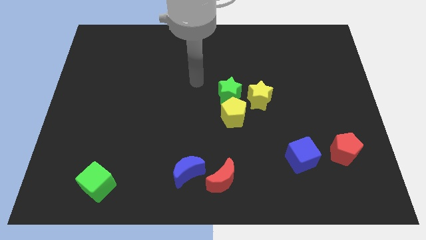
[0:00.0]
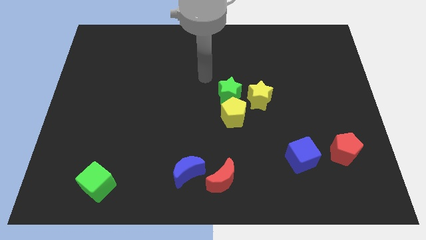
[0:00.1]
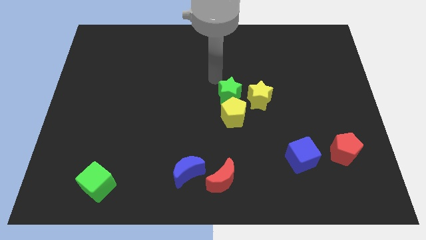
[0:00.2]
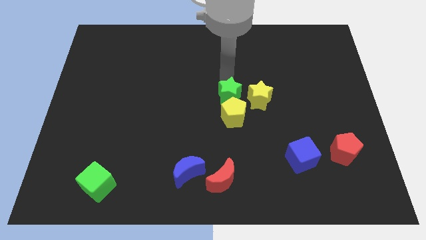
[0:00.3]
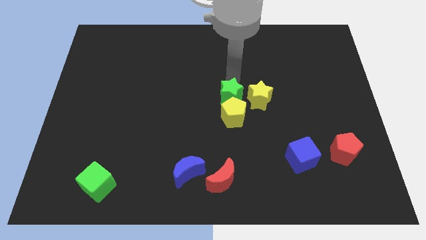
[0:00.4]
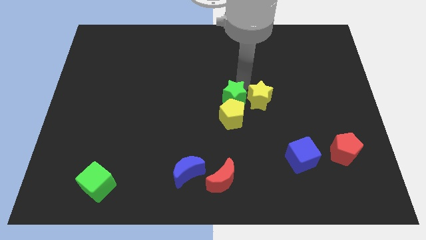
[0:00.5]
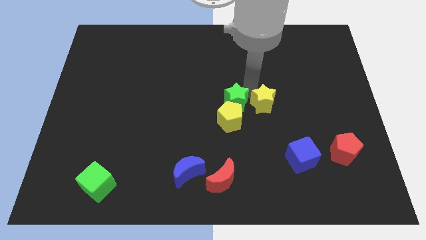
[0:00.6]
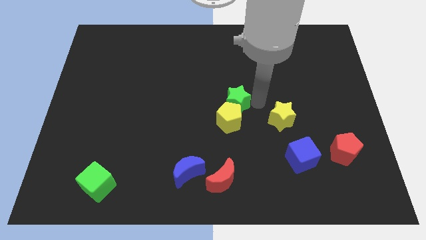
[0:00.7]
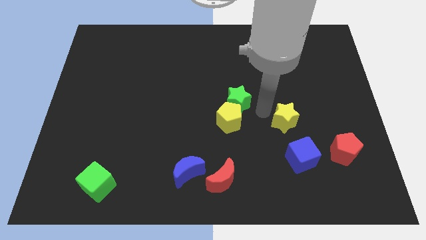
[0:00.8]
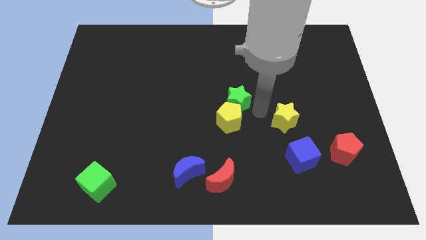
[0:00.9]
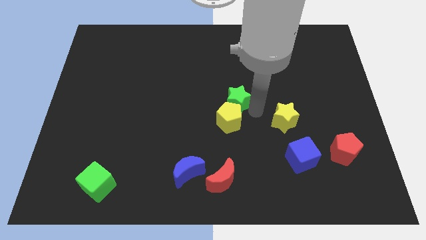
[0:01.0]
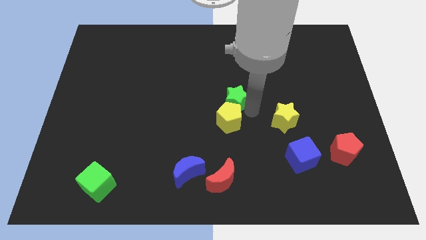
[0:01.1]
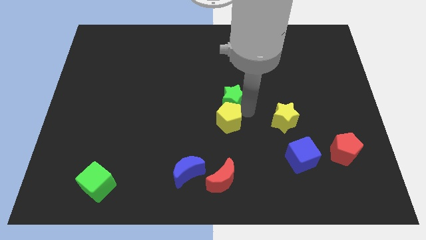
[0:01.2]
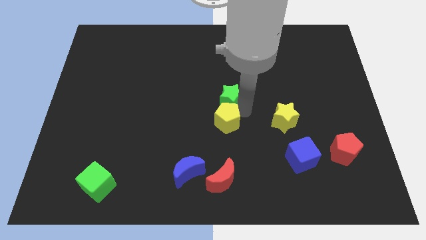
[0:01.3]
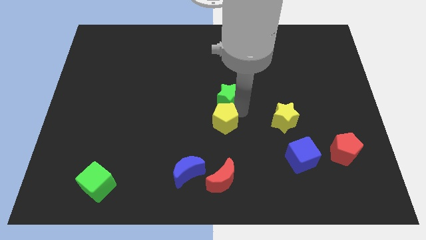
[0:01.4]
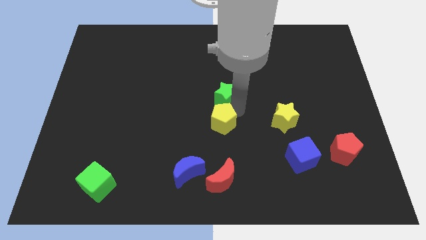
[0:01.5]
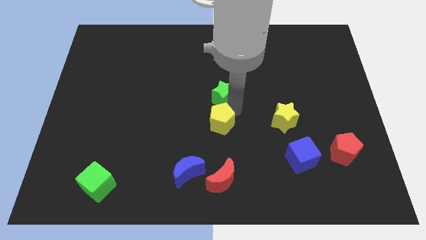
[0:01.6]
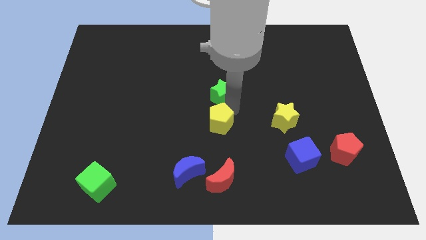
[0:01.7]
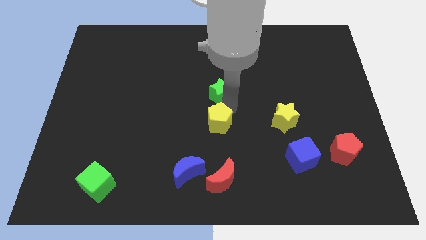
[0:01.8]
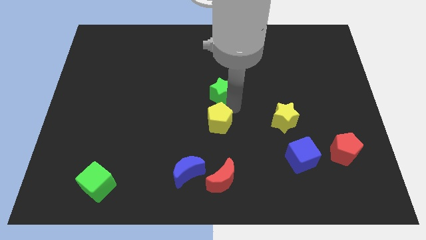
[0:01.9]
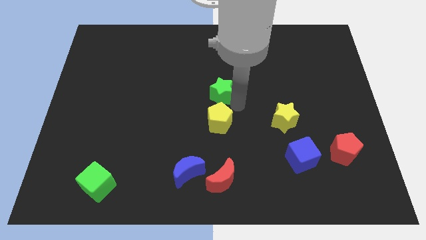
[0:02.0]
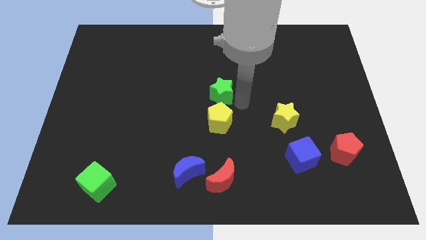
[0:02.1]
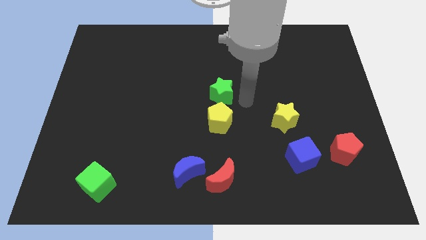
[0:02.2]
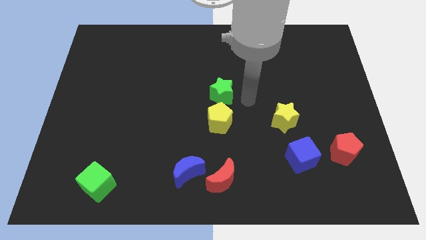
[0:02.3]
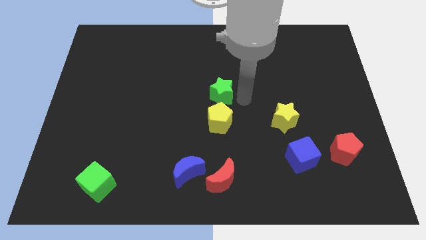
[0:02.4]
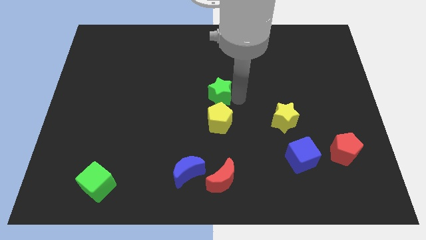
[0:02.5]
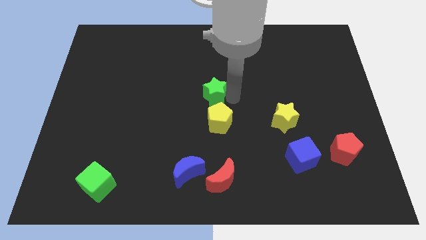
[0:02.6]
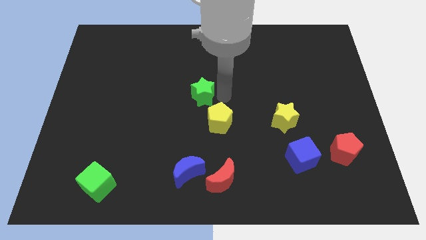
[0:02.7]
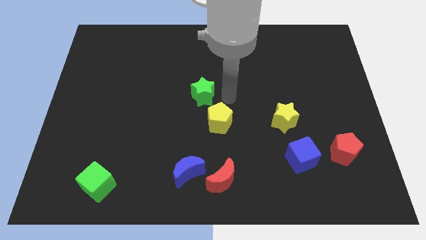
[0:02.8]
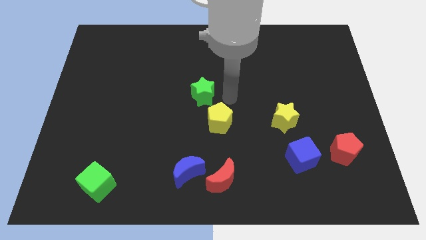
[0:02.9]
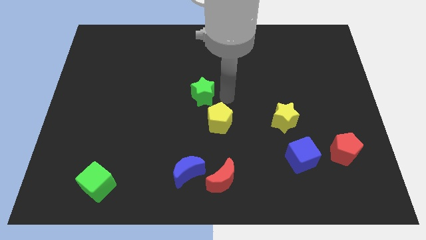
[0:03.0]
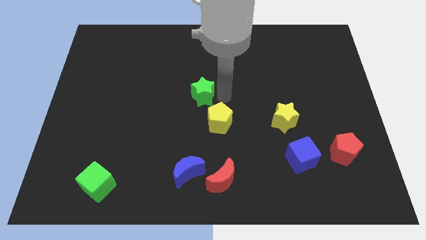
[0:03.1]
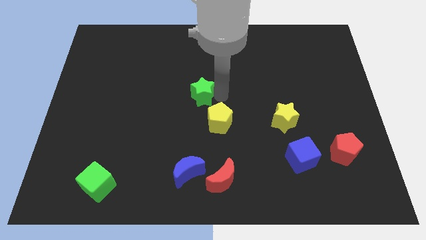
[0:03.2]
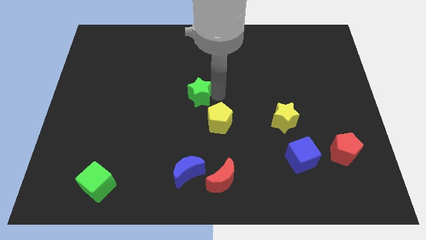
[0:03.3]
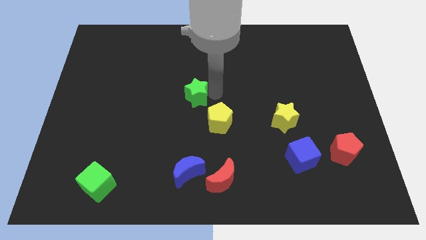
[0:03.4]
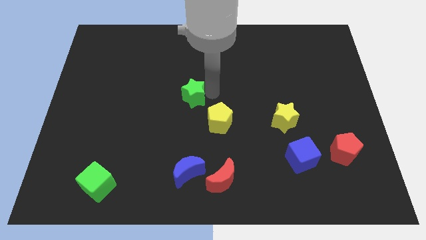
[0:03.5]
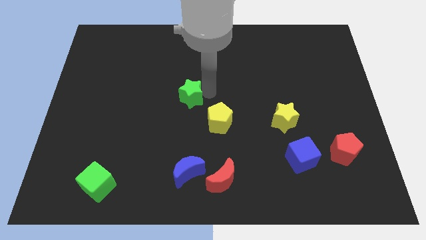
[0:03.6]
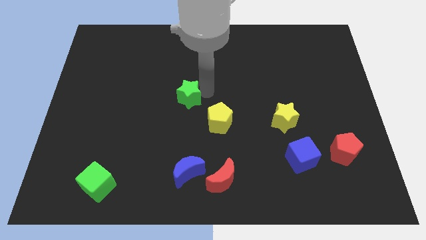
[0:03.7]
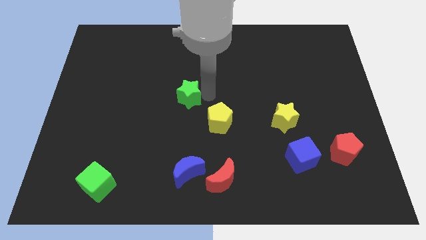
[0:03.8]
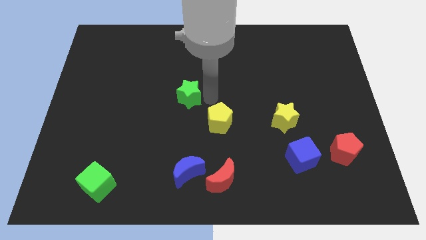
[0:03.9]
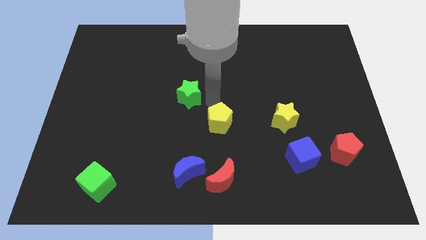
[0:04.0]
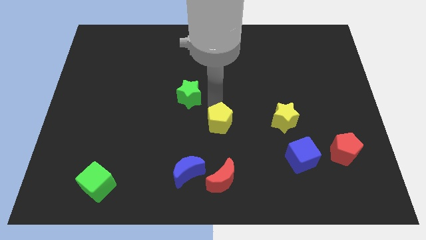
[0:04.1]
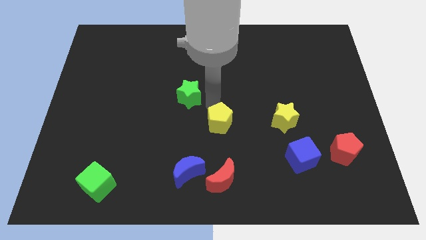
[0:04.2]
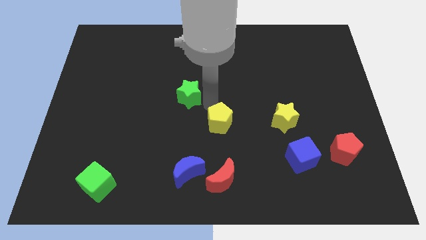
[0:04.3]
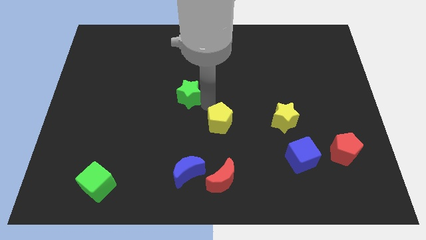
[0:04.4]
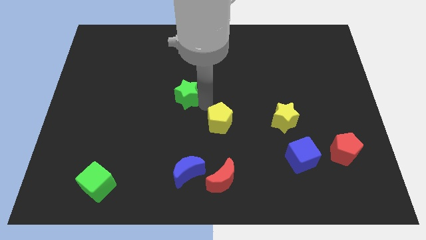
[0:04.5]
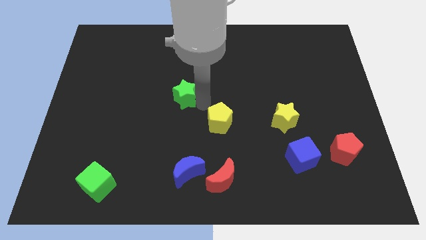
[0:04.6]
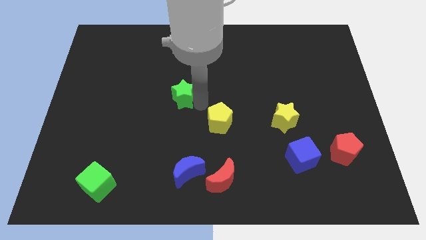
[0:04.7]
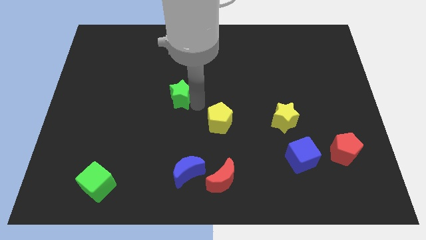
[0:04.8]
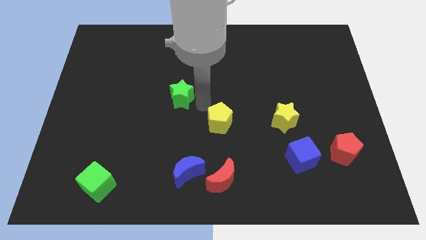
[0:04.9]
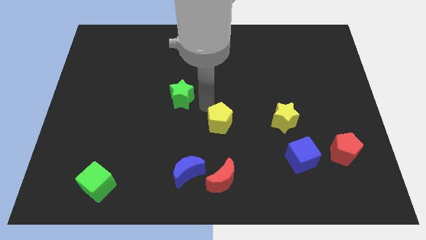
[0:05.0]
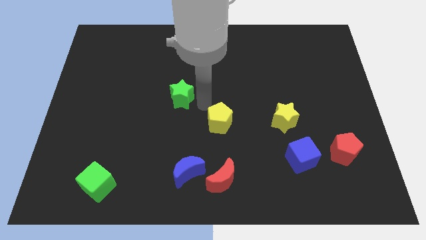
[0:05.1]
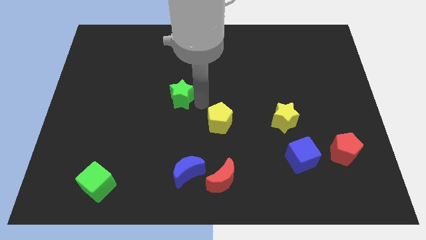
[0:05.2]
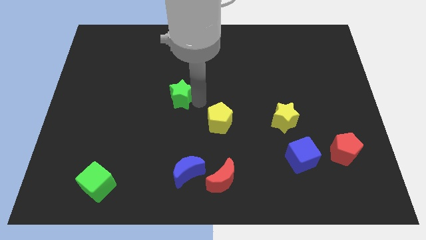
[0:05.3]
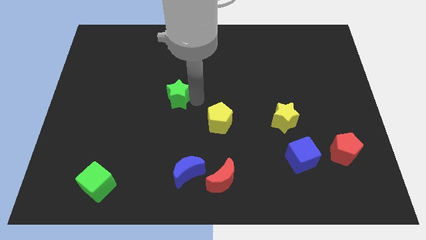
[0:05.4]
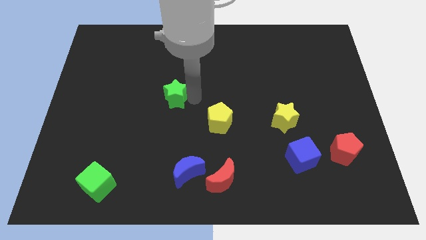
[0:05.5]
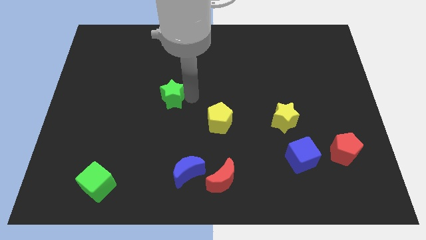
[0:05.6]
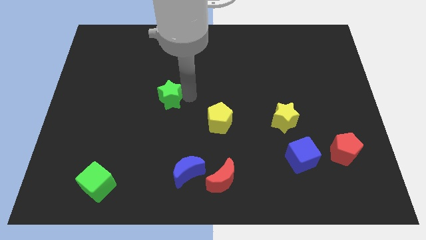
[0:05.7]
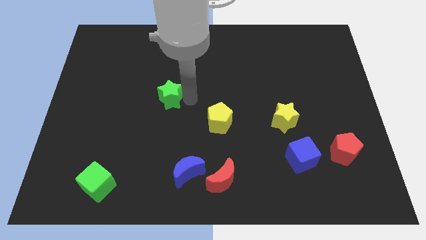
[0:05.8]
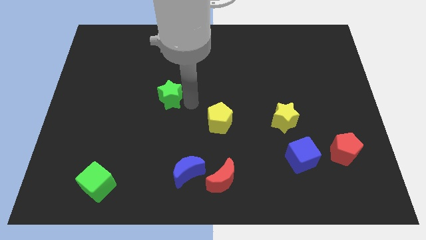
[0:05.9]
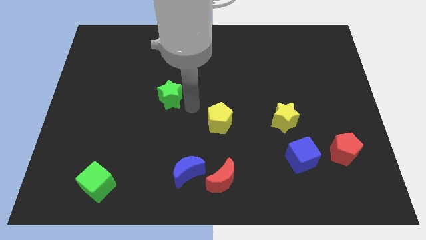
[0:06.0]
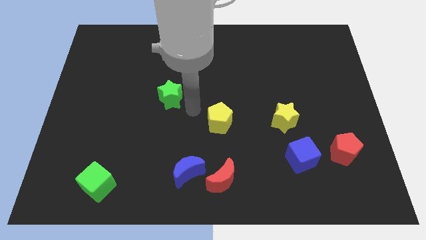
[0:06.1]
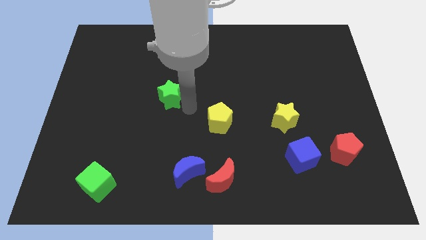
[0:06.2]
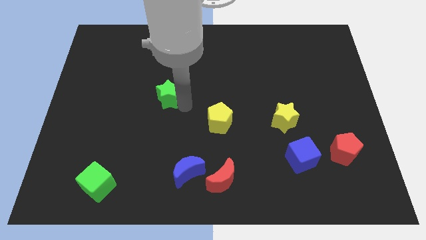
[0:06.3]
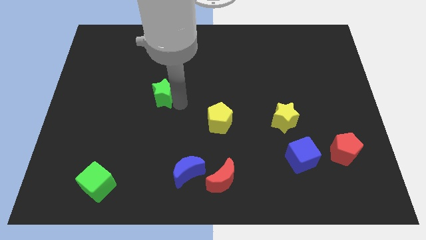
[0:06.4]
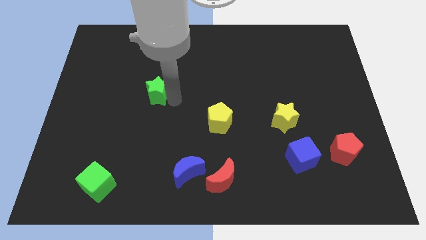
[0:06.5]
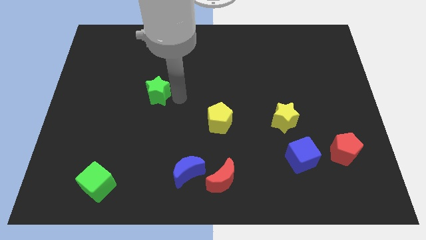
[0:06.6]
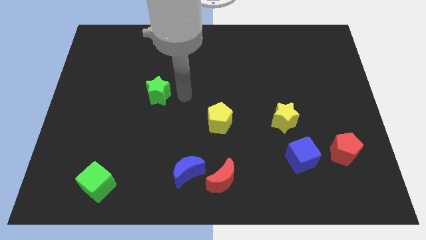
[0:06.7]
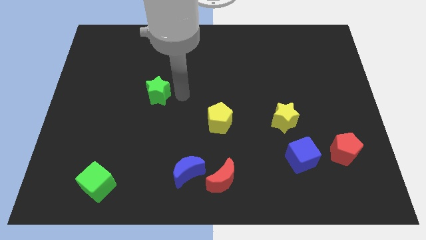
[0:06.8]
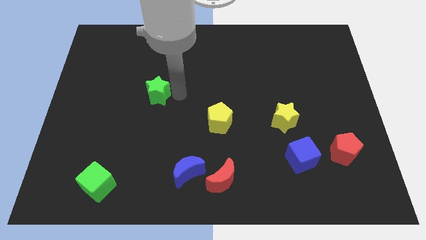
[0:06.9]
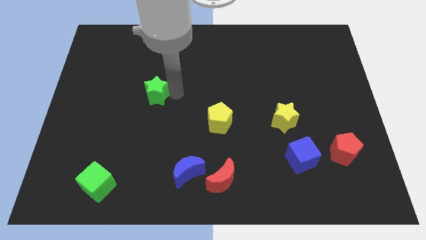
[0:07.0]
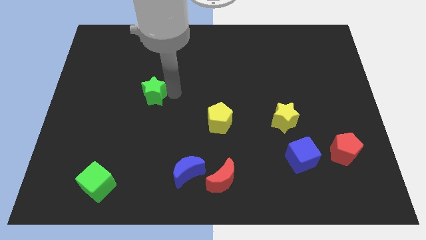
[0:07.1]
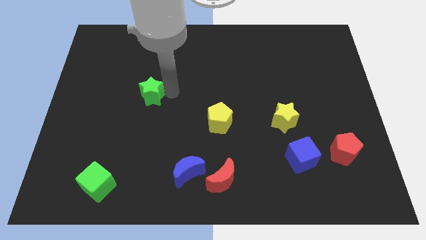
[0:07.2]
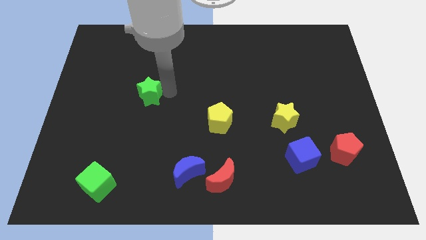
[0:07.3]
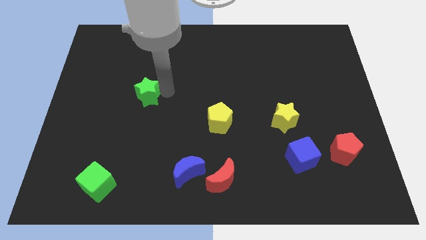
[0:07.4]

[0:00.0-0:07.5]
push the green star left

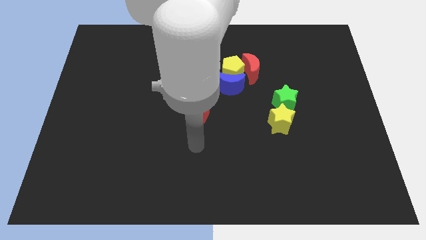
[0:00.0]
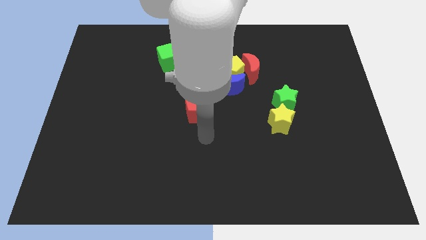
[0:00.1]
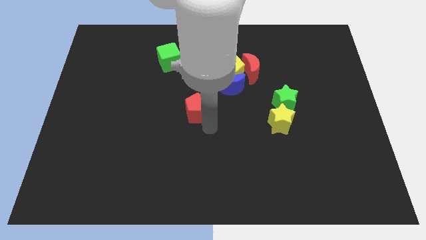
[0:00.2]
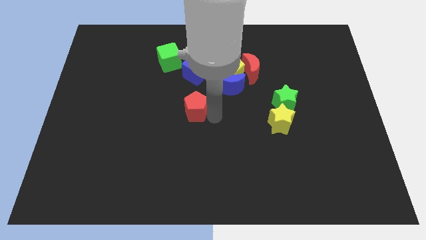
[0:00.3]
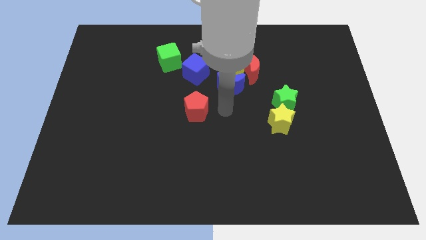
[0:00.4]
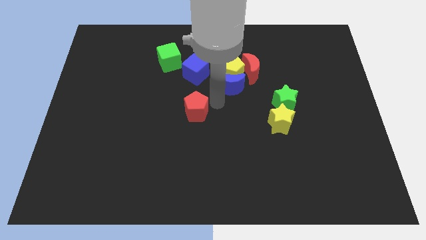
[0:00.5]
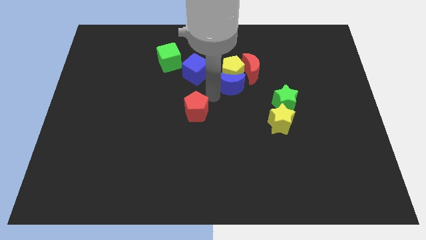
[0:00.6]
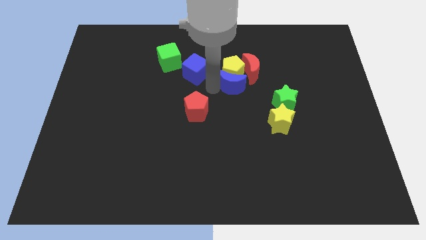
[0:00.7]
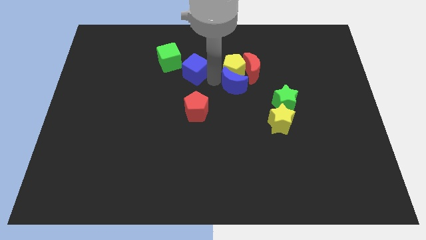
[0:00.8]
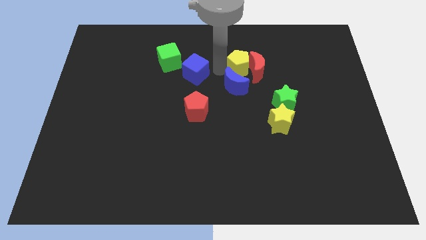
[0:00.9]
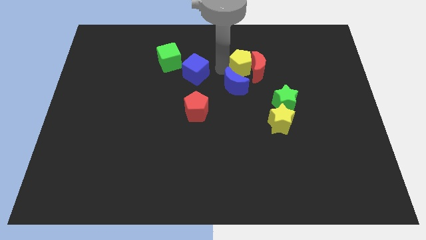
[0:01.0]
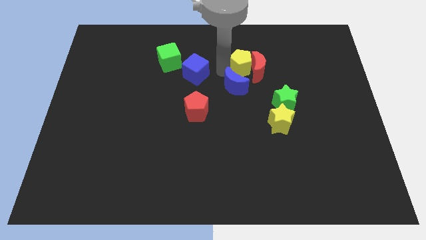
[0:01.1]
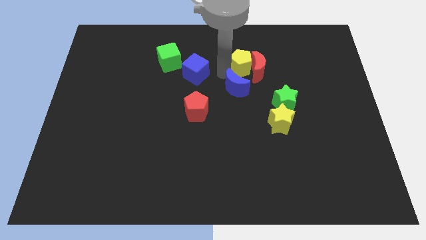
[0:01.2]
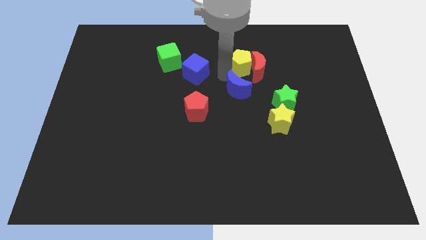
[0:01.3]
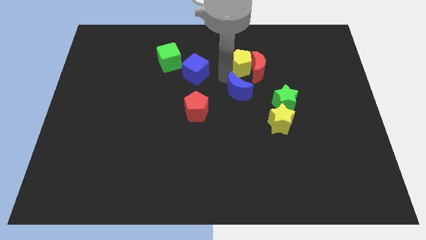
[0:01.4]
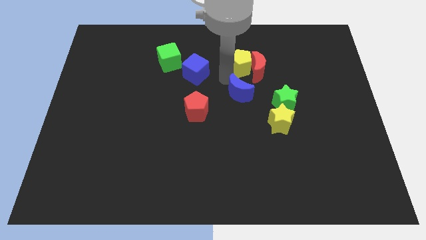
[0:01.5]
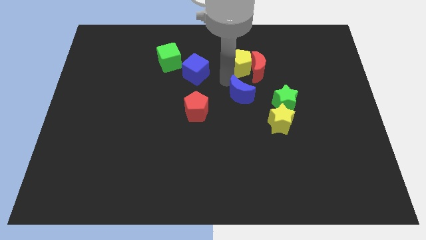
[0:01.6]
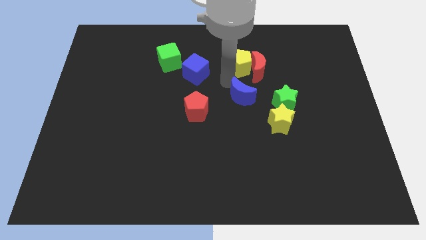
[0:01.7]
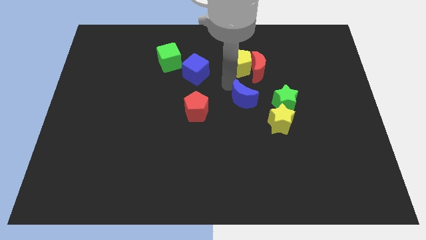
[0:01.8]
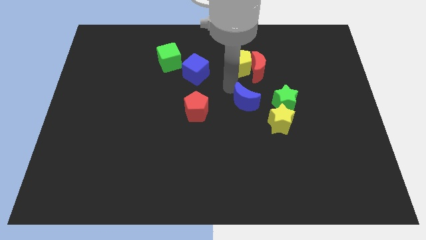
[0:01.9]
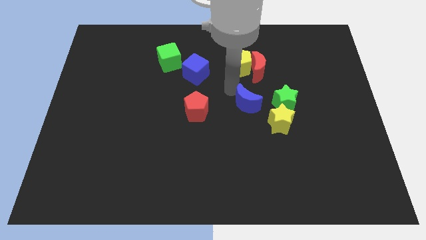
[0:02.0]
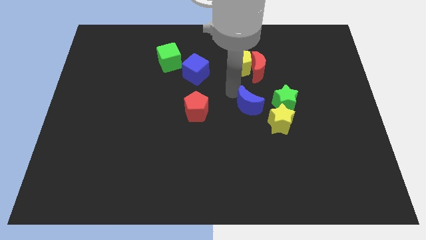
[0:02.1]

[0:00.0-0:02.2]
slightly push the blue moon down and to the right
